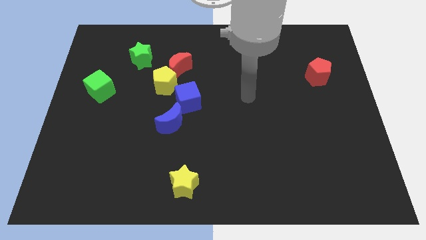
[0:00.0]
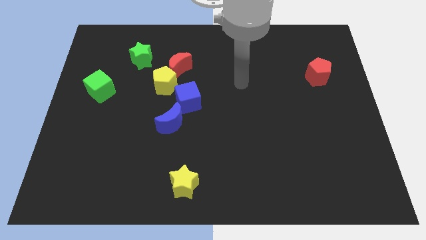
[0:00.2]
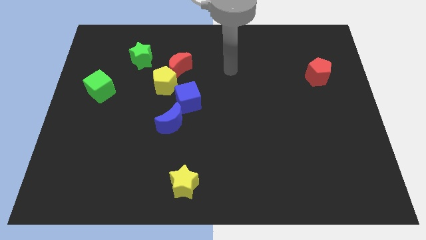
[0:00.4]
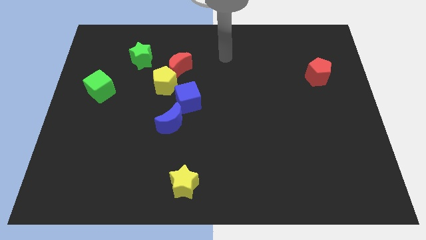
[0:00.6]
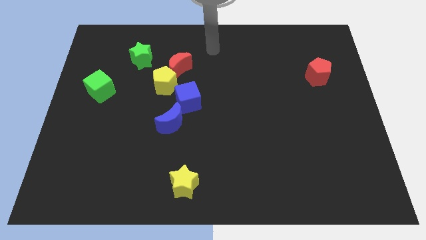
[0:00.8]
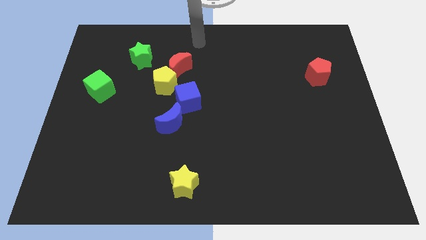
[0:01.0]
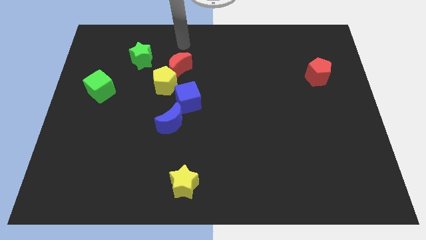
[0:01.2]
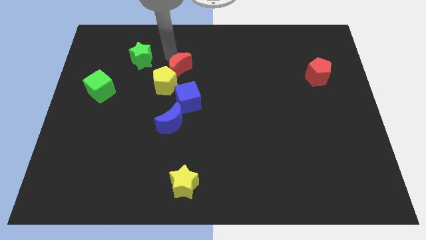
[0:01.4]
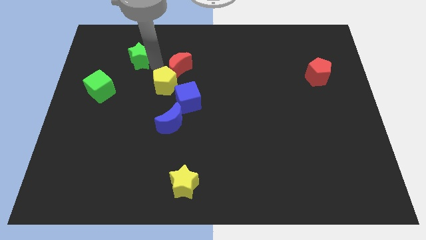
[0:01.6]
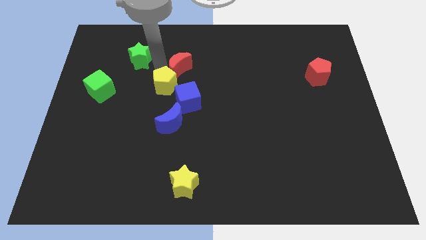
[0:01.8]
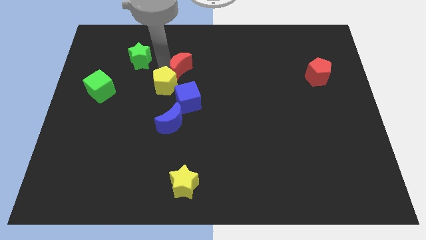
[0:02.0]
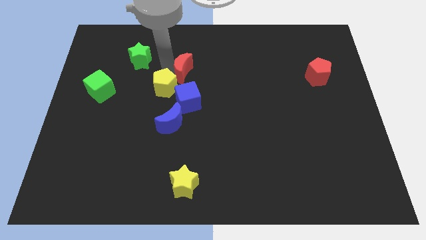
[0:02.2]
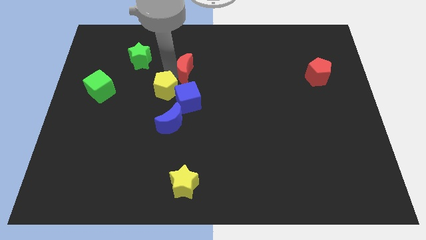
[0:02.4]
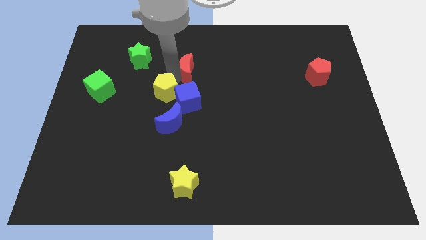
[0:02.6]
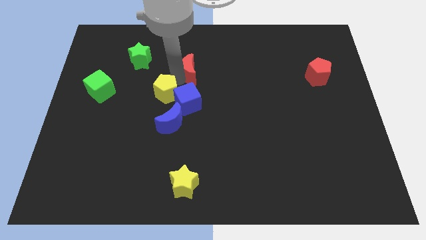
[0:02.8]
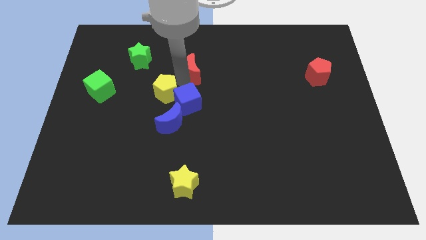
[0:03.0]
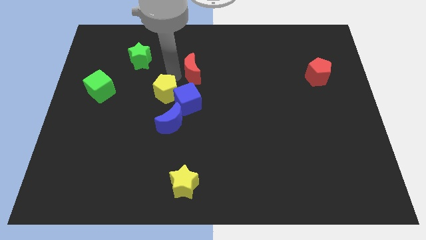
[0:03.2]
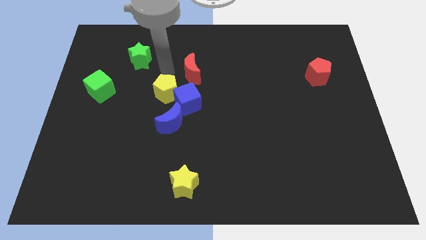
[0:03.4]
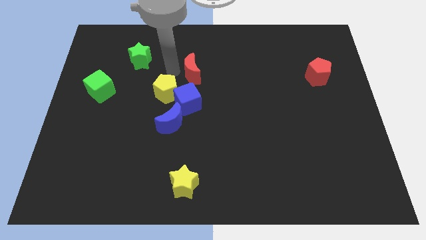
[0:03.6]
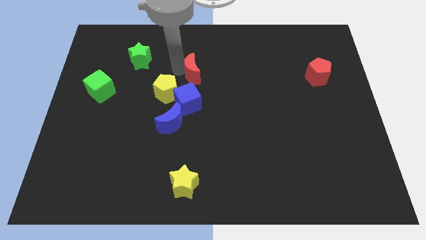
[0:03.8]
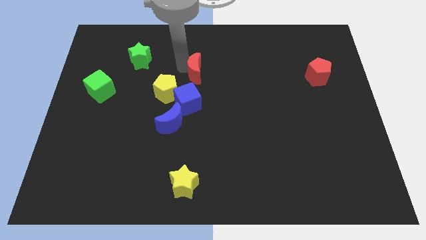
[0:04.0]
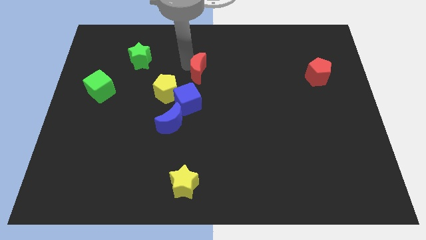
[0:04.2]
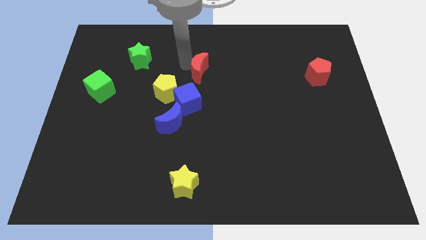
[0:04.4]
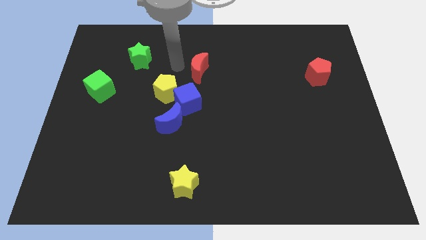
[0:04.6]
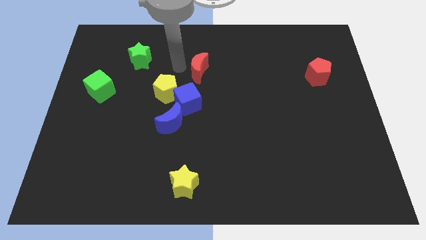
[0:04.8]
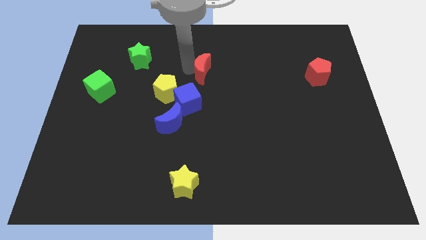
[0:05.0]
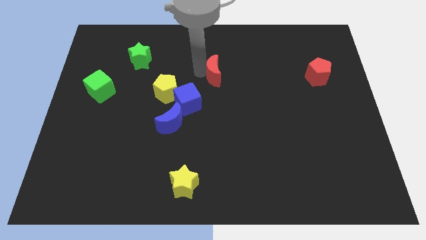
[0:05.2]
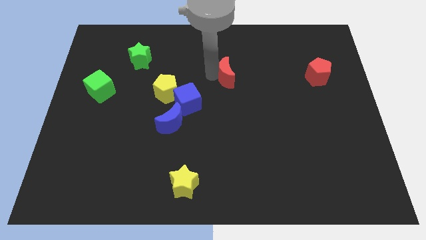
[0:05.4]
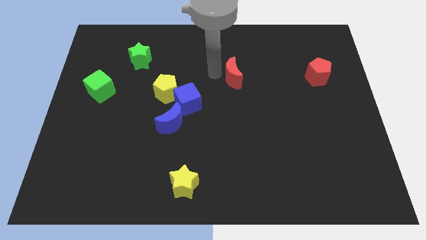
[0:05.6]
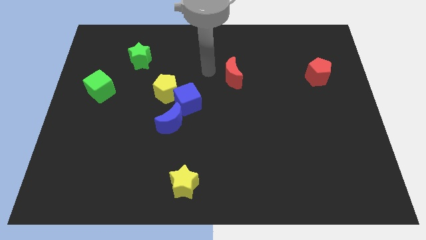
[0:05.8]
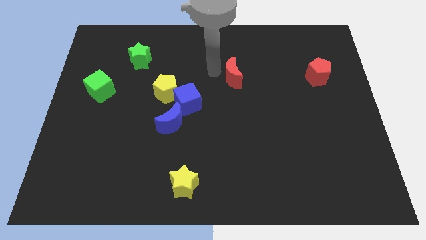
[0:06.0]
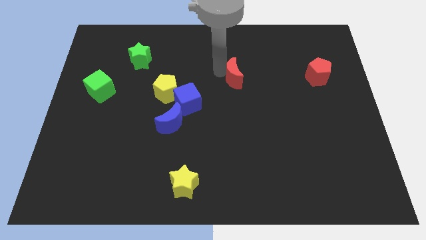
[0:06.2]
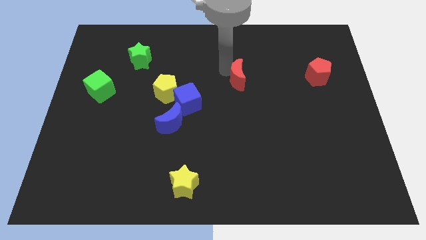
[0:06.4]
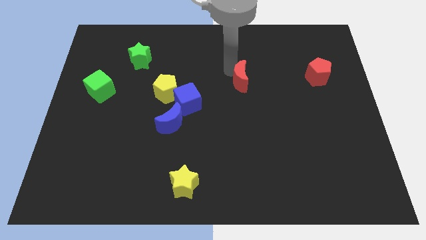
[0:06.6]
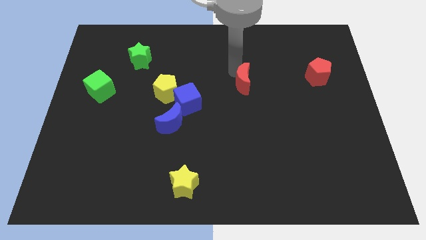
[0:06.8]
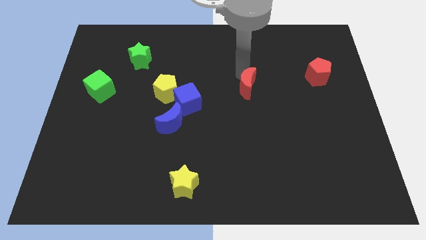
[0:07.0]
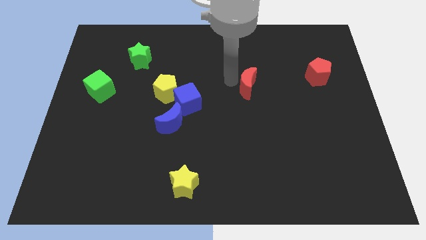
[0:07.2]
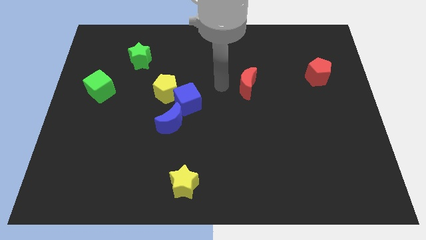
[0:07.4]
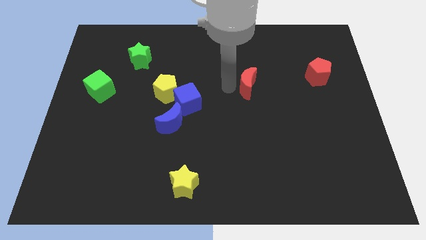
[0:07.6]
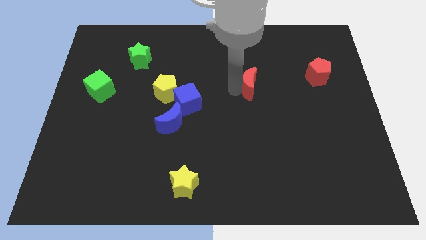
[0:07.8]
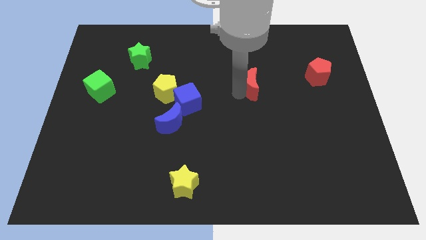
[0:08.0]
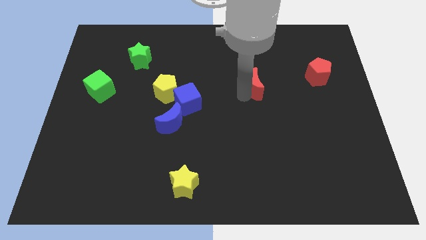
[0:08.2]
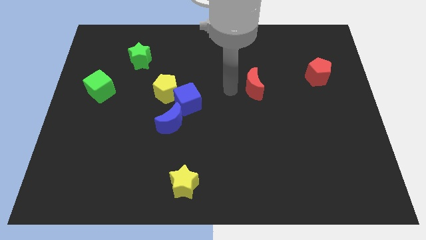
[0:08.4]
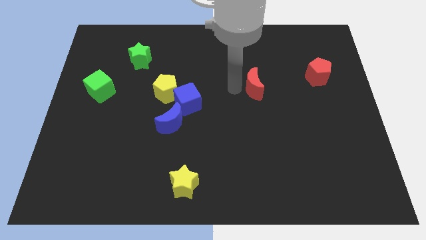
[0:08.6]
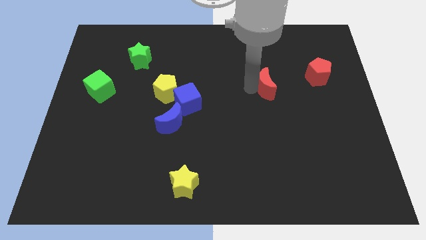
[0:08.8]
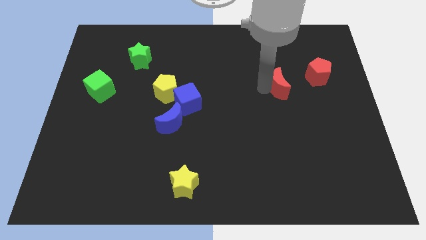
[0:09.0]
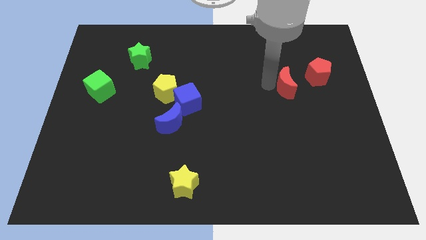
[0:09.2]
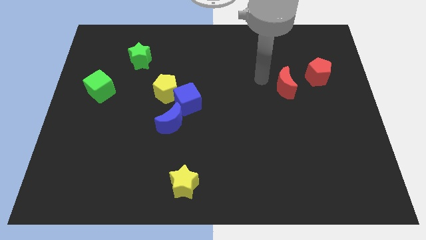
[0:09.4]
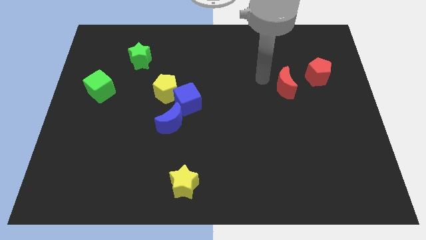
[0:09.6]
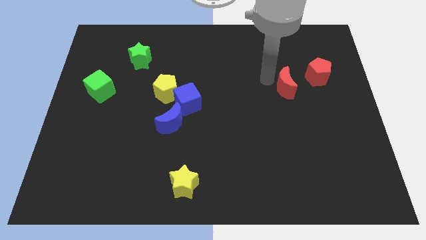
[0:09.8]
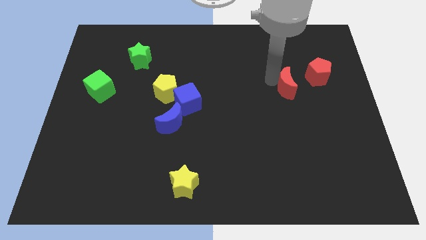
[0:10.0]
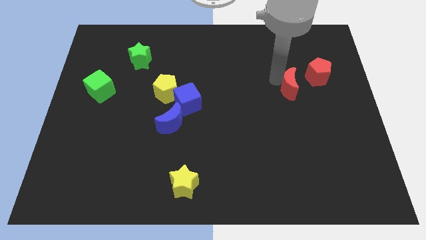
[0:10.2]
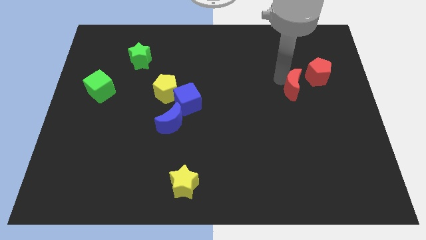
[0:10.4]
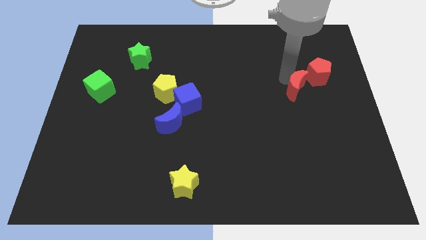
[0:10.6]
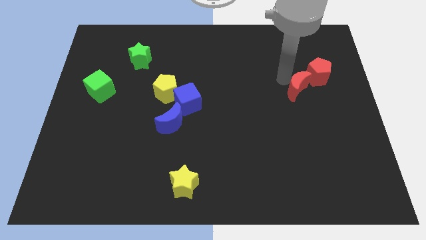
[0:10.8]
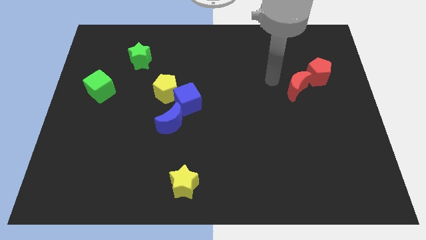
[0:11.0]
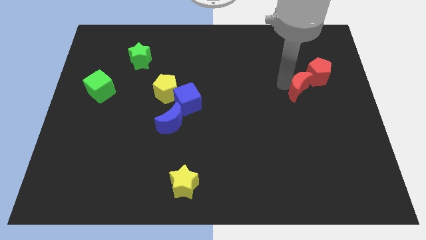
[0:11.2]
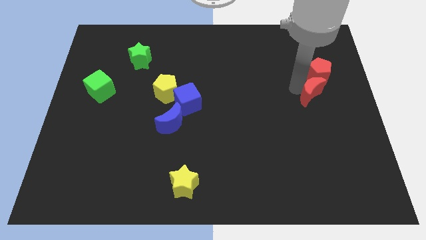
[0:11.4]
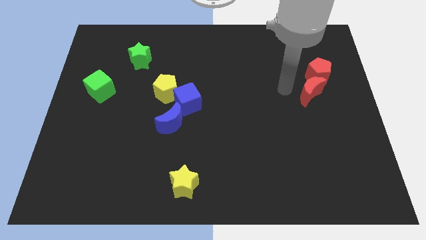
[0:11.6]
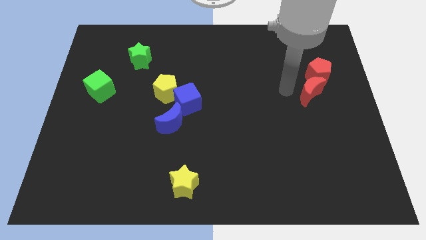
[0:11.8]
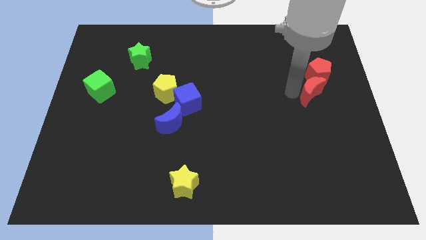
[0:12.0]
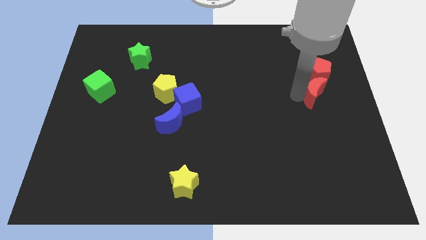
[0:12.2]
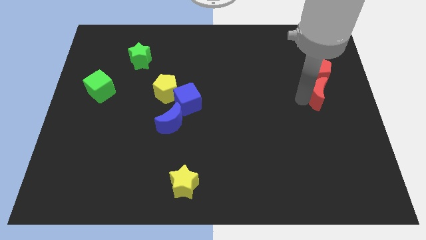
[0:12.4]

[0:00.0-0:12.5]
push the red moon to the right side of the board
